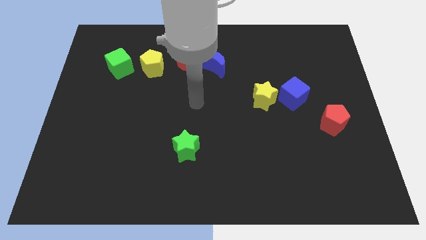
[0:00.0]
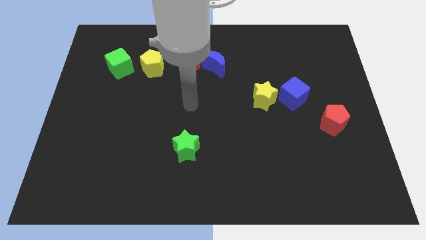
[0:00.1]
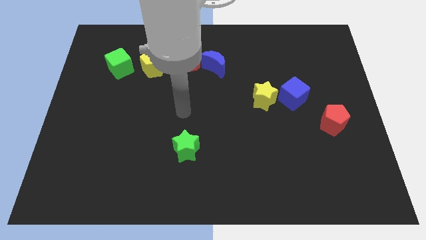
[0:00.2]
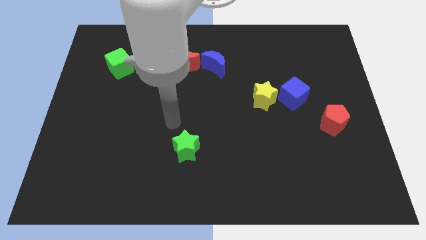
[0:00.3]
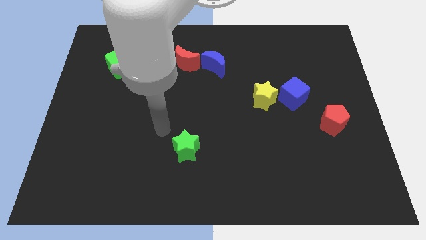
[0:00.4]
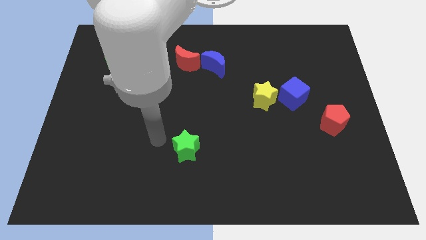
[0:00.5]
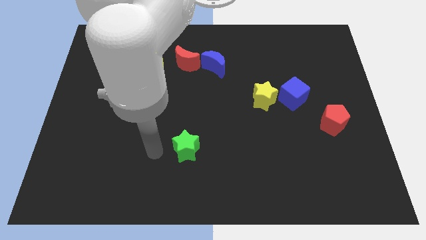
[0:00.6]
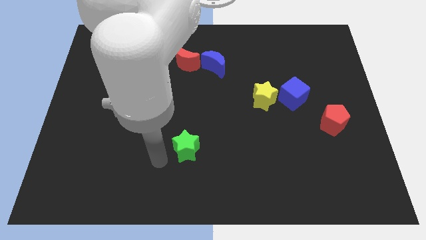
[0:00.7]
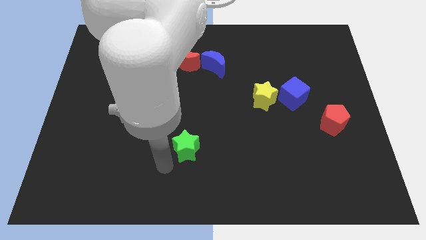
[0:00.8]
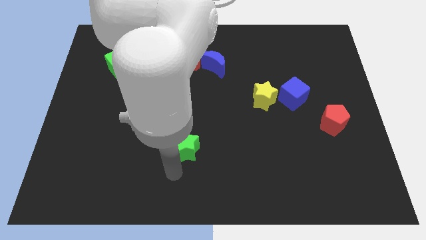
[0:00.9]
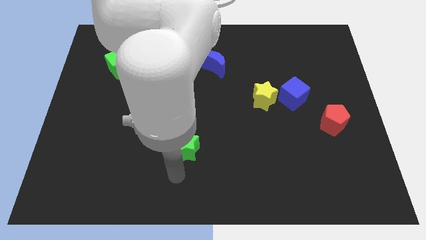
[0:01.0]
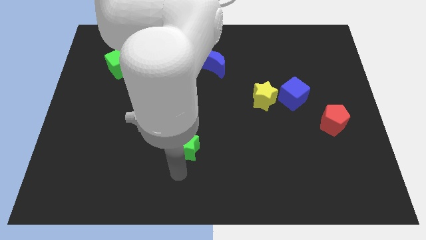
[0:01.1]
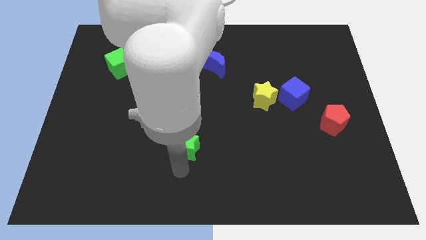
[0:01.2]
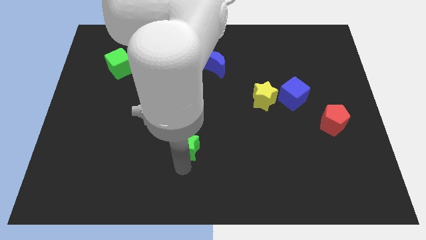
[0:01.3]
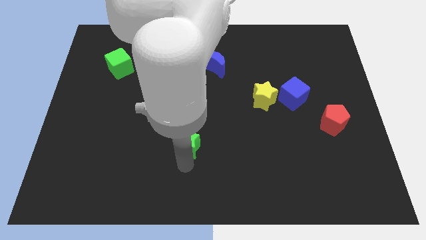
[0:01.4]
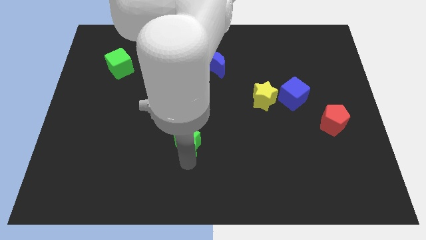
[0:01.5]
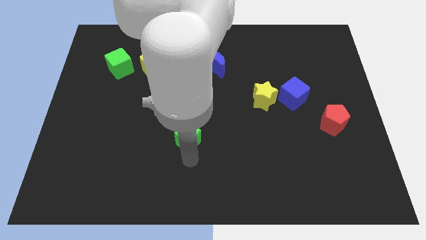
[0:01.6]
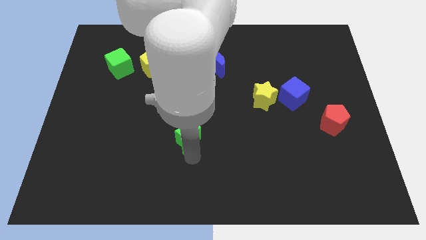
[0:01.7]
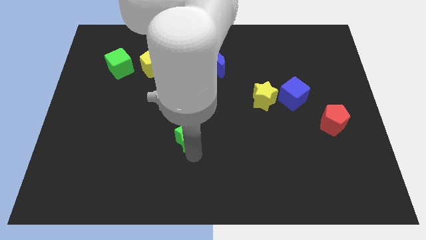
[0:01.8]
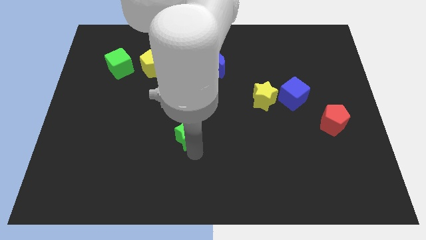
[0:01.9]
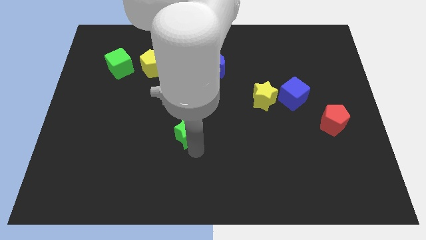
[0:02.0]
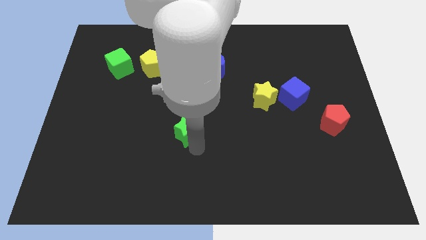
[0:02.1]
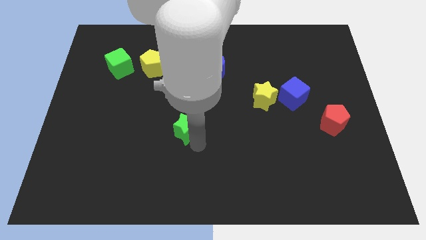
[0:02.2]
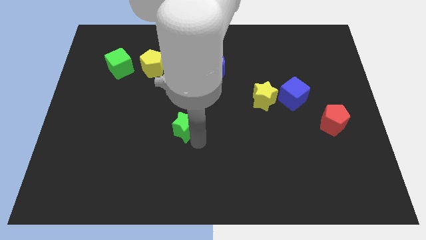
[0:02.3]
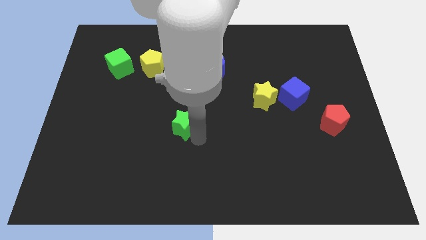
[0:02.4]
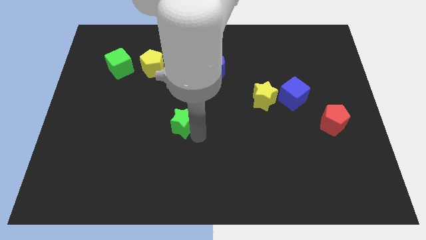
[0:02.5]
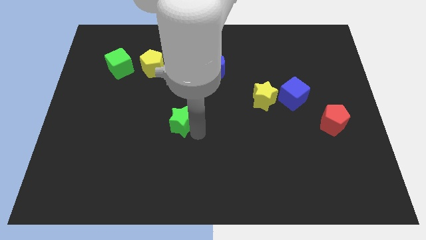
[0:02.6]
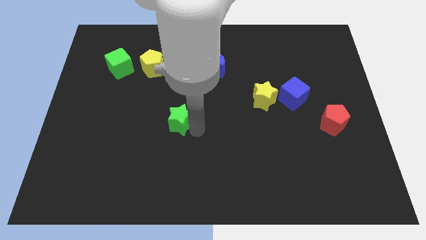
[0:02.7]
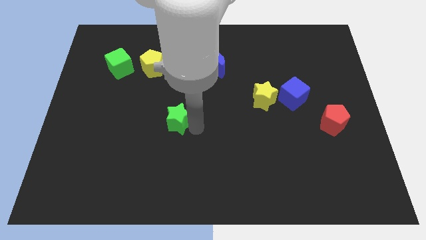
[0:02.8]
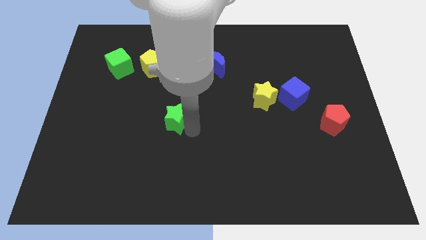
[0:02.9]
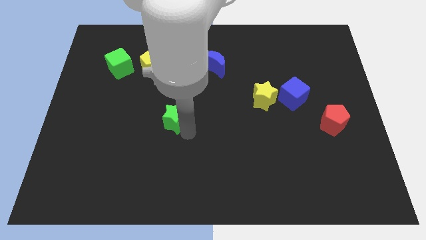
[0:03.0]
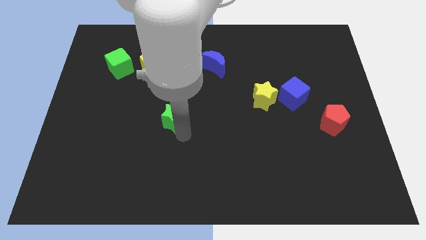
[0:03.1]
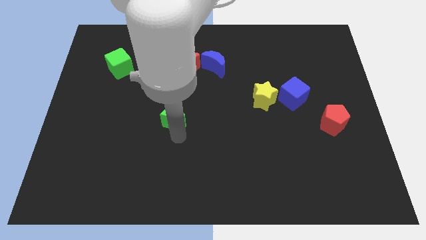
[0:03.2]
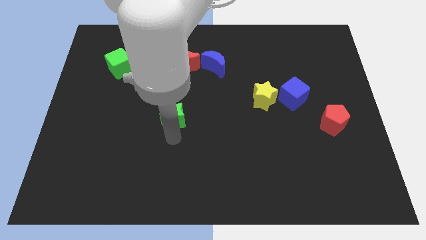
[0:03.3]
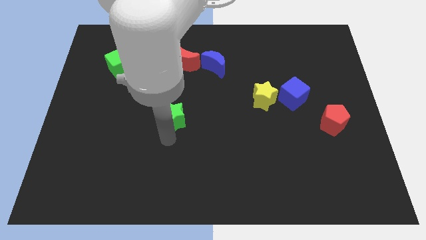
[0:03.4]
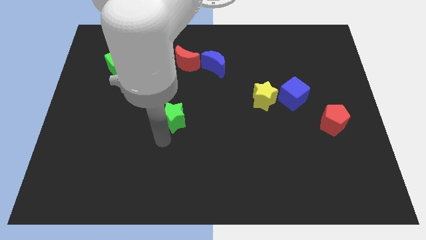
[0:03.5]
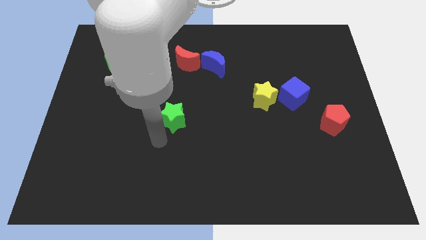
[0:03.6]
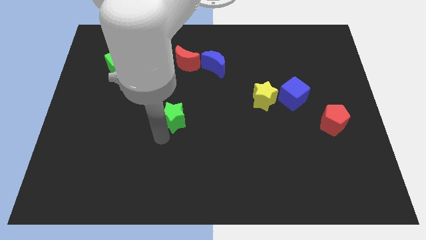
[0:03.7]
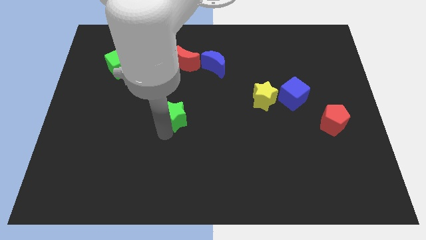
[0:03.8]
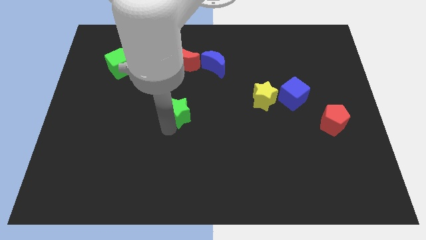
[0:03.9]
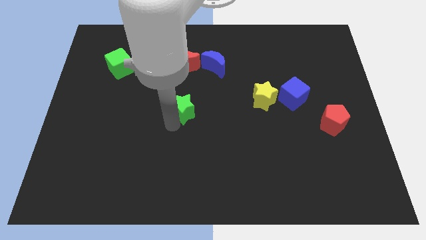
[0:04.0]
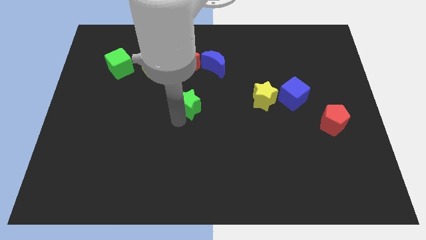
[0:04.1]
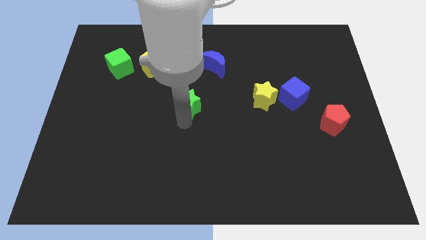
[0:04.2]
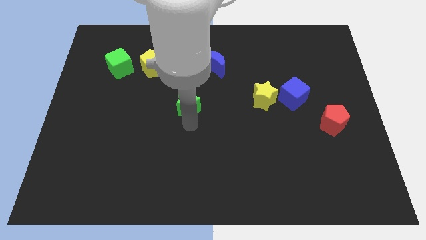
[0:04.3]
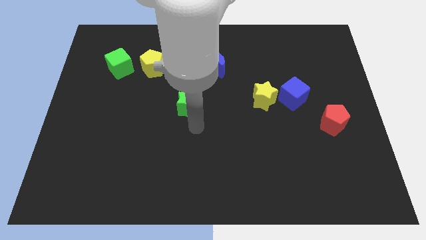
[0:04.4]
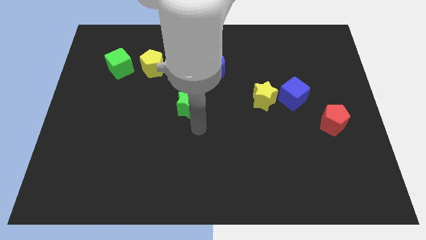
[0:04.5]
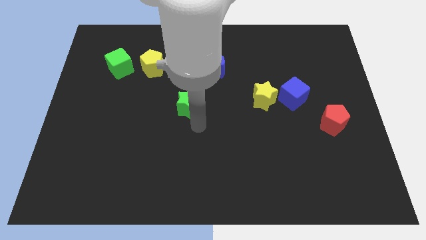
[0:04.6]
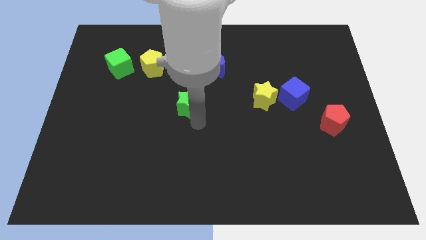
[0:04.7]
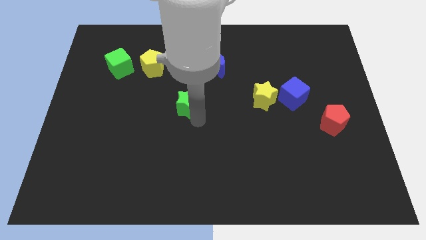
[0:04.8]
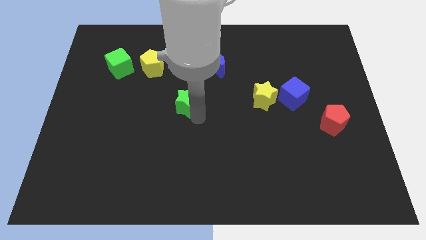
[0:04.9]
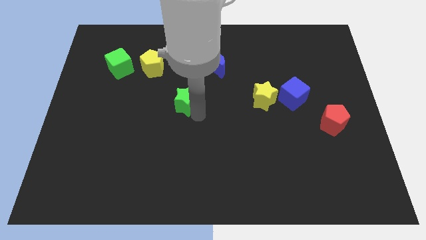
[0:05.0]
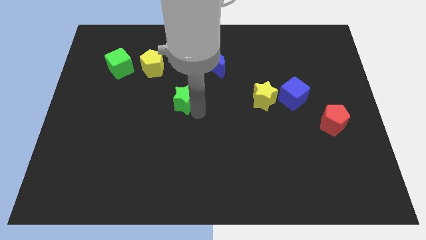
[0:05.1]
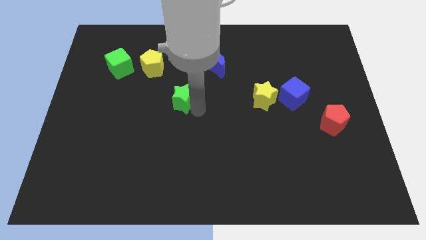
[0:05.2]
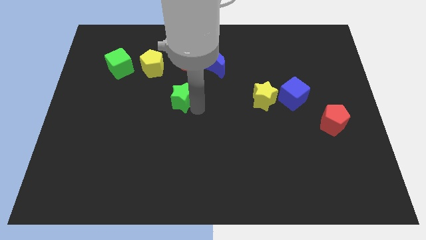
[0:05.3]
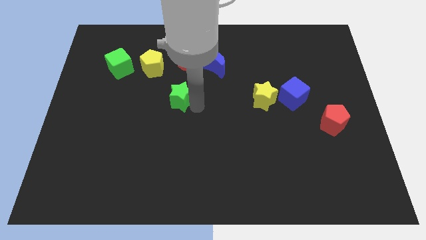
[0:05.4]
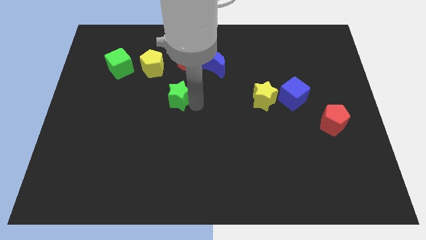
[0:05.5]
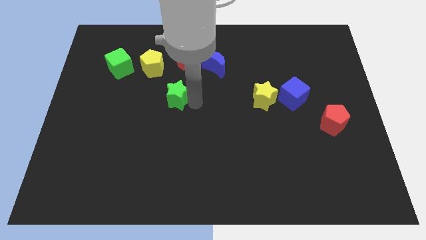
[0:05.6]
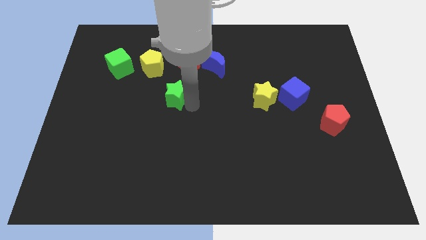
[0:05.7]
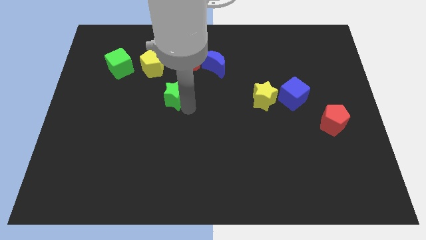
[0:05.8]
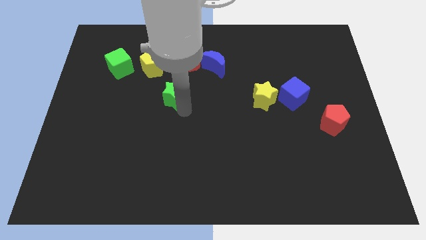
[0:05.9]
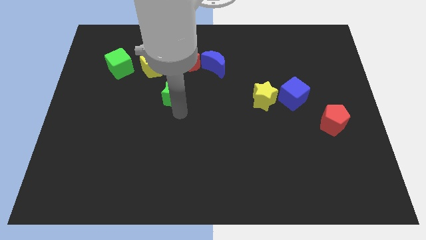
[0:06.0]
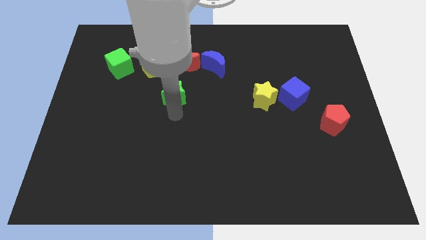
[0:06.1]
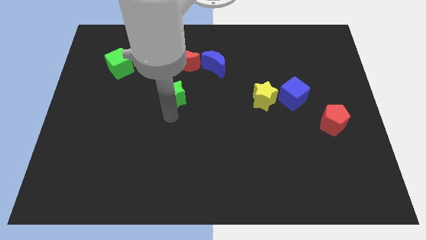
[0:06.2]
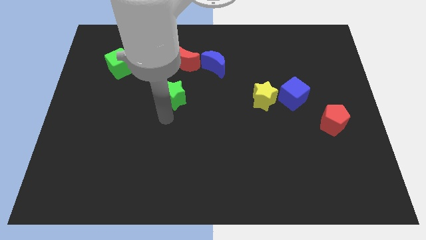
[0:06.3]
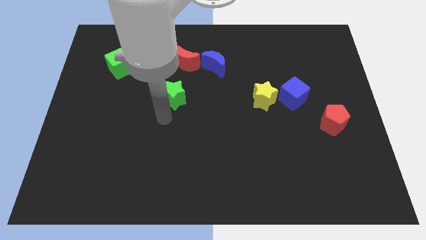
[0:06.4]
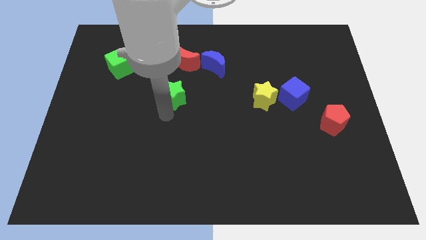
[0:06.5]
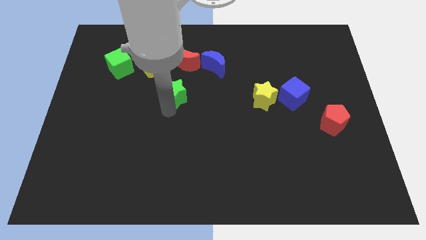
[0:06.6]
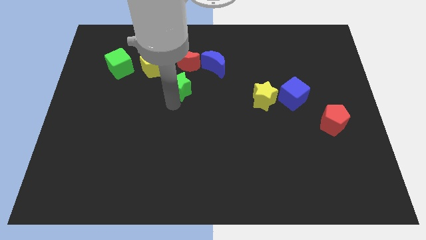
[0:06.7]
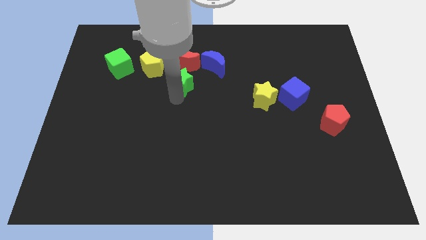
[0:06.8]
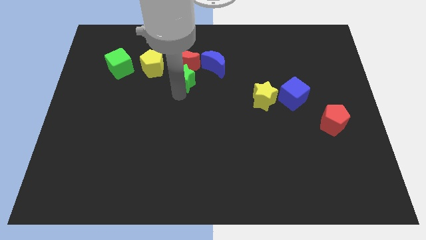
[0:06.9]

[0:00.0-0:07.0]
move the green star to the red moon
